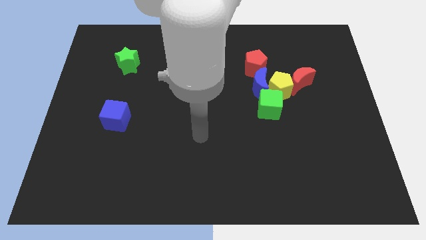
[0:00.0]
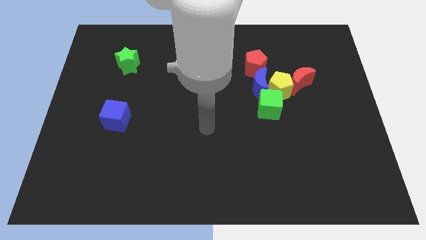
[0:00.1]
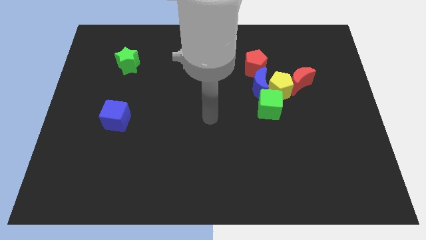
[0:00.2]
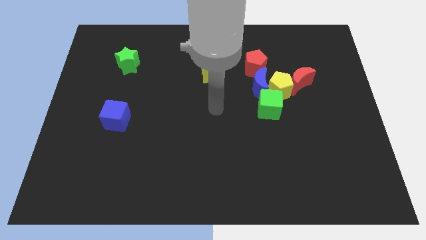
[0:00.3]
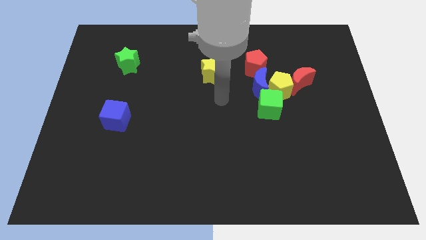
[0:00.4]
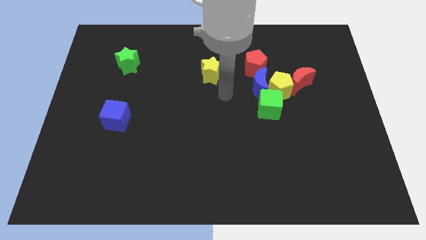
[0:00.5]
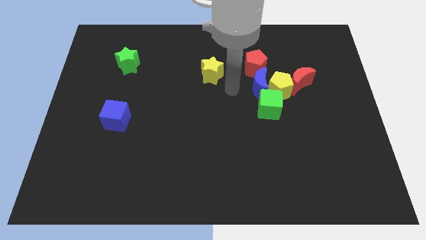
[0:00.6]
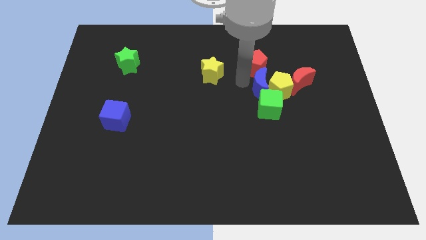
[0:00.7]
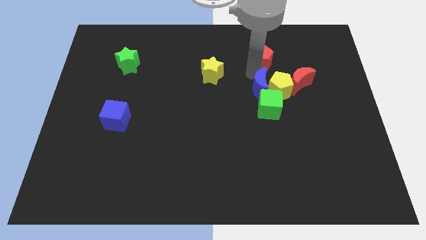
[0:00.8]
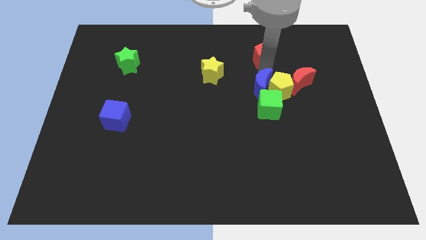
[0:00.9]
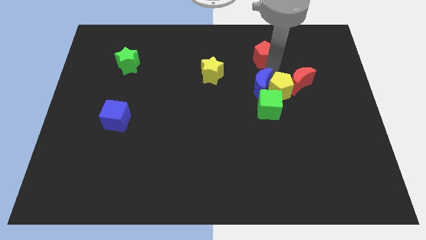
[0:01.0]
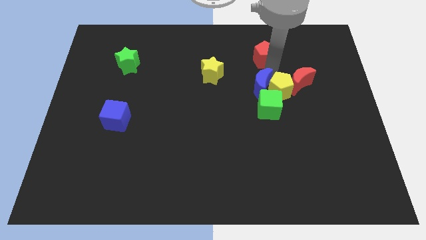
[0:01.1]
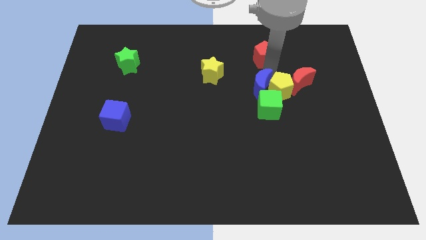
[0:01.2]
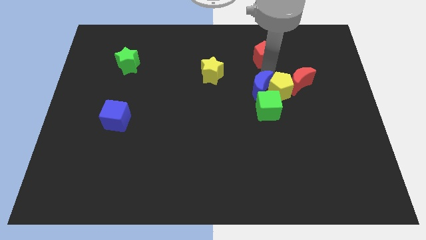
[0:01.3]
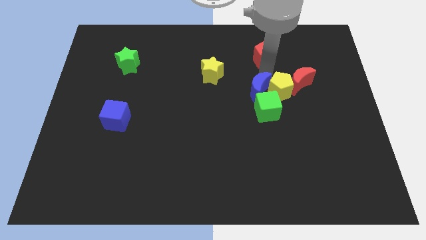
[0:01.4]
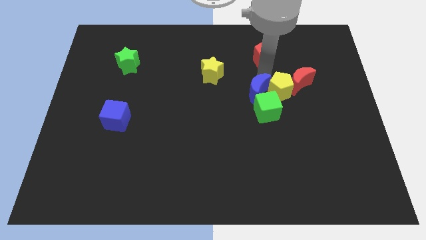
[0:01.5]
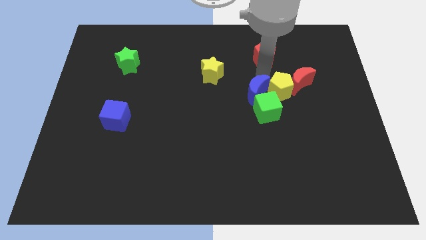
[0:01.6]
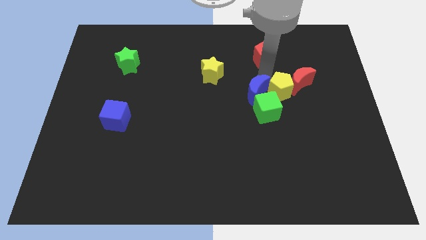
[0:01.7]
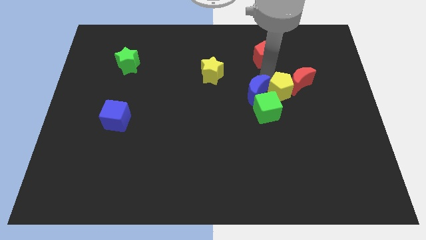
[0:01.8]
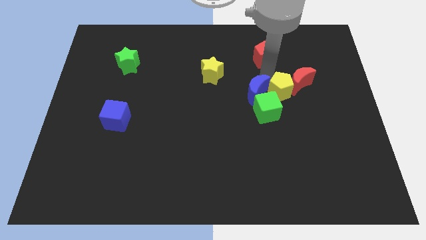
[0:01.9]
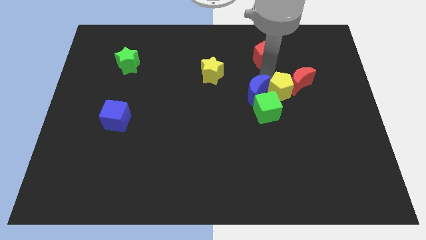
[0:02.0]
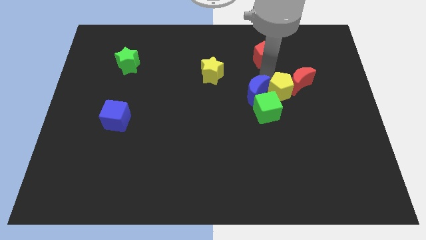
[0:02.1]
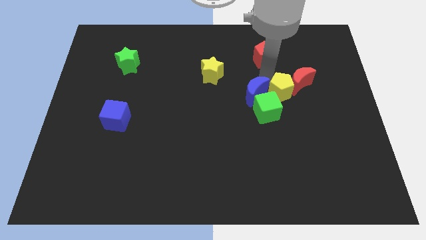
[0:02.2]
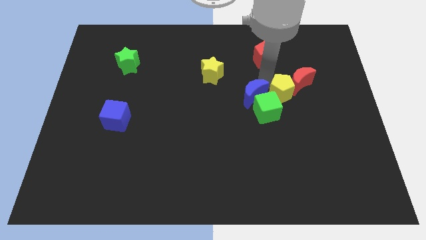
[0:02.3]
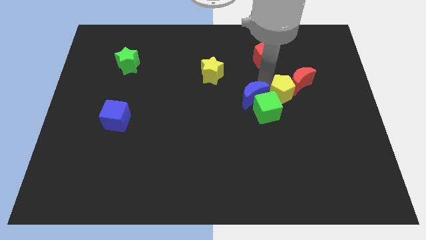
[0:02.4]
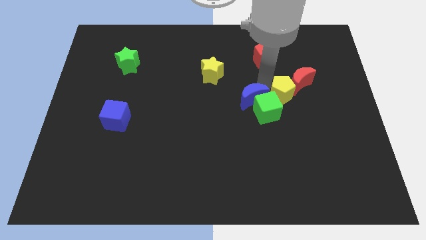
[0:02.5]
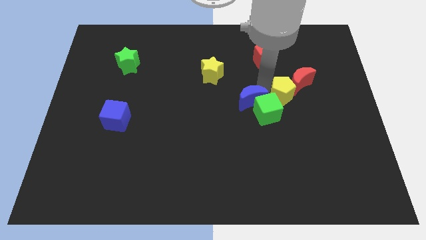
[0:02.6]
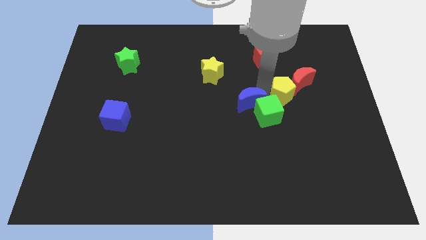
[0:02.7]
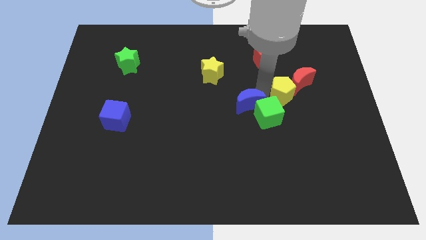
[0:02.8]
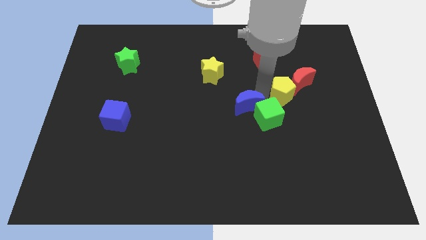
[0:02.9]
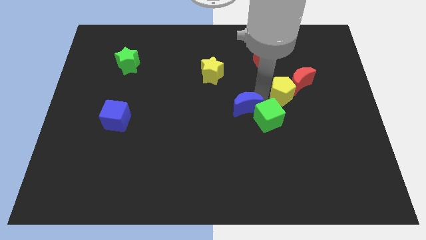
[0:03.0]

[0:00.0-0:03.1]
slightly move the blue moon downwards and to the left

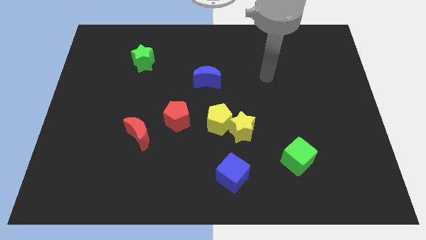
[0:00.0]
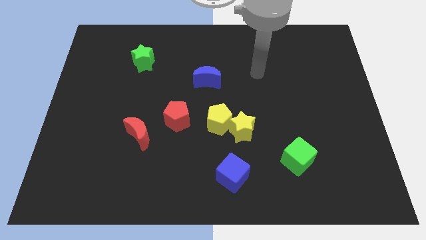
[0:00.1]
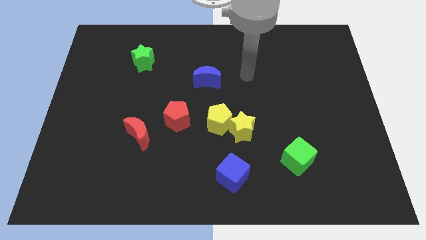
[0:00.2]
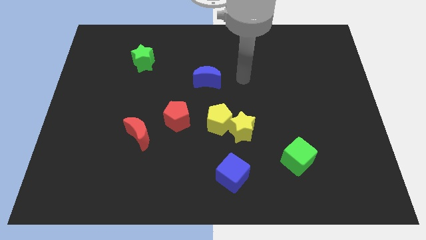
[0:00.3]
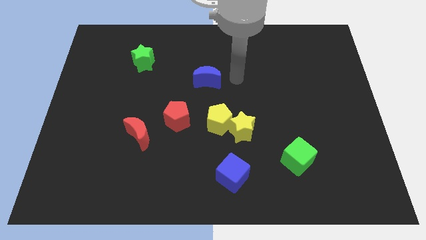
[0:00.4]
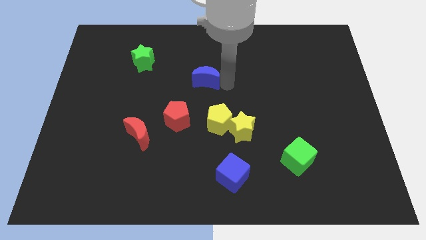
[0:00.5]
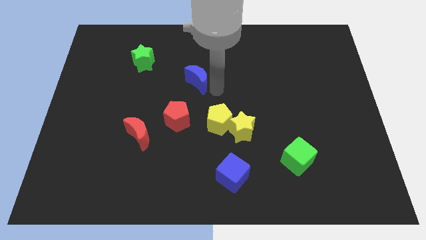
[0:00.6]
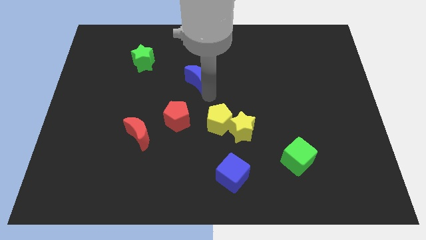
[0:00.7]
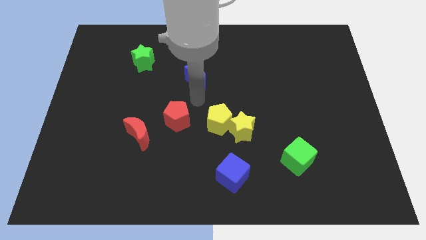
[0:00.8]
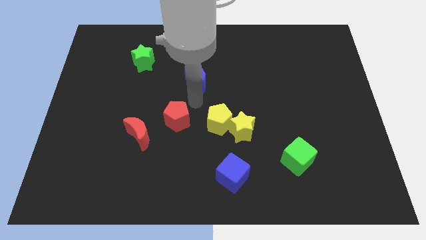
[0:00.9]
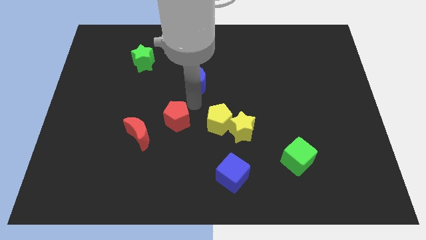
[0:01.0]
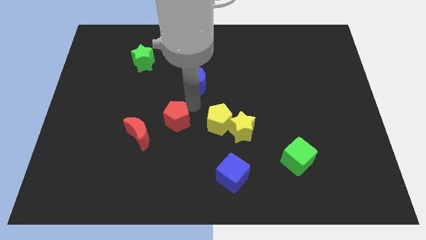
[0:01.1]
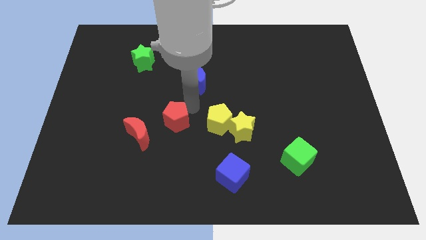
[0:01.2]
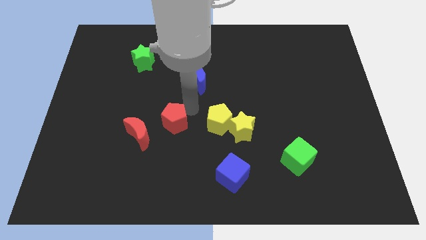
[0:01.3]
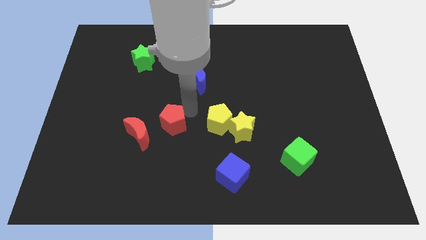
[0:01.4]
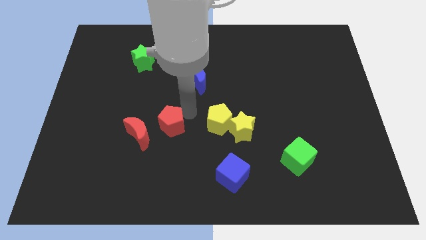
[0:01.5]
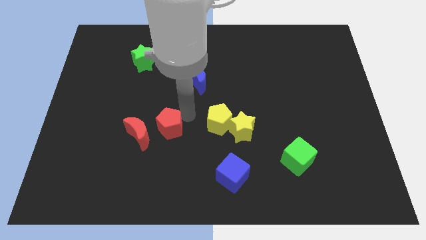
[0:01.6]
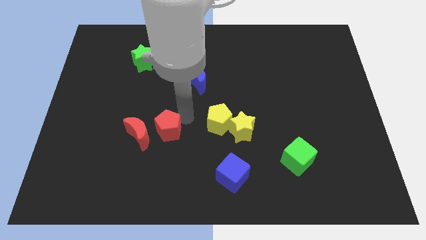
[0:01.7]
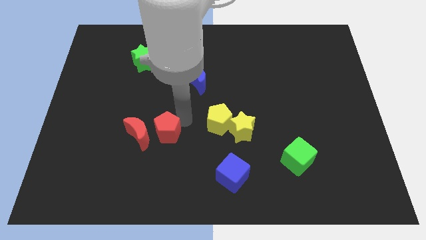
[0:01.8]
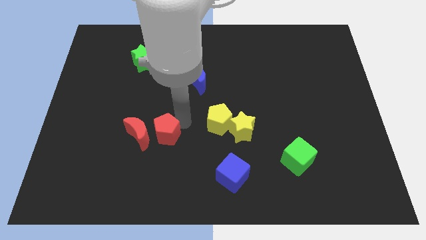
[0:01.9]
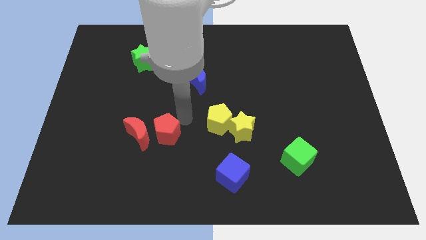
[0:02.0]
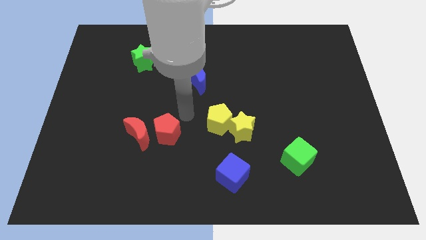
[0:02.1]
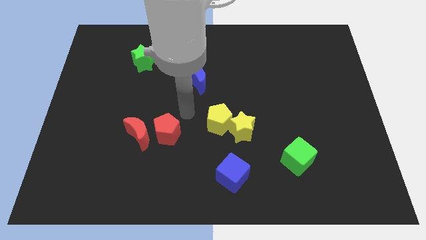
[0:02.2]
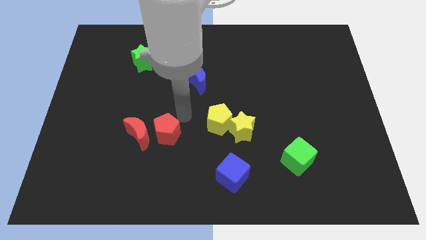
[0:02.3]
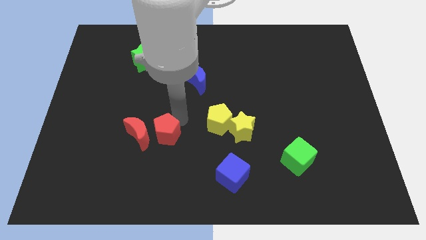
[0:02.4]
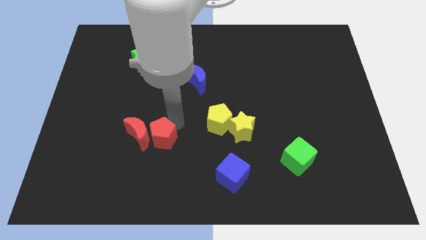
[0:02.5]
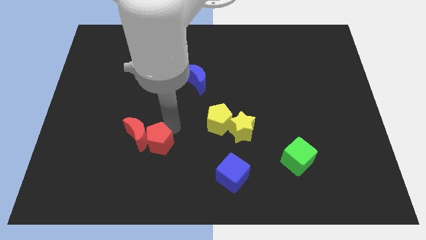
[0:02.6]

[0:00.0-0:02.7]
push the red pentagon somewhat downwards and left

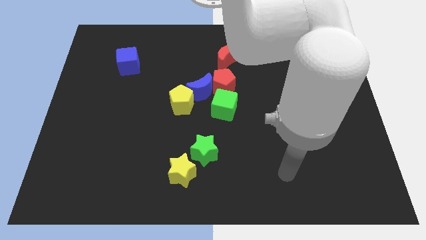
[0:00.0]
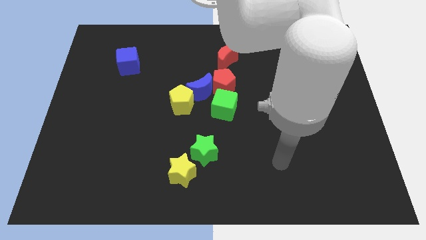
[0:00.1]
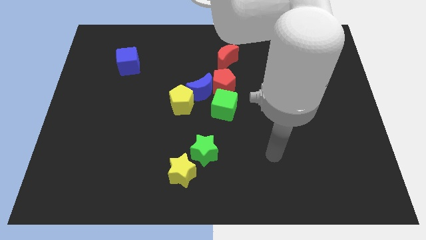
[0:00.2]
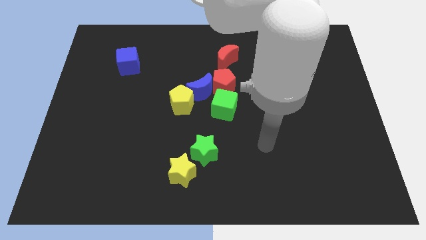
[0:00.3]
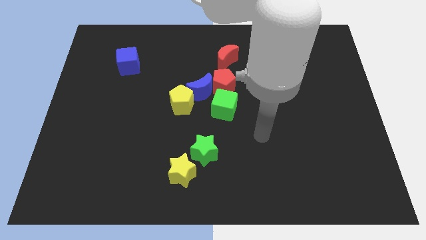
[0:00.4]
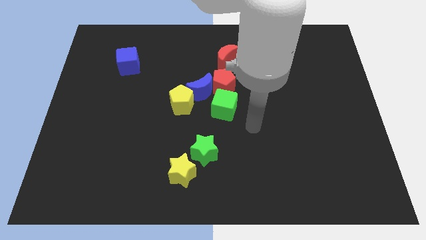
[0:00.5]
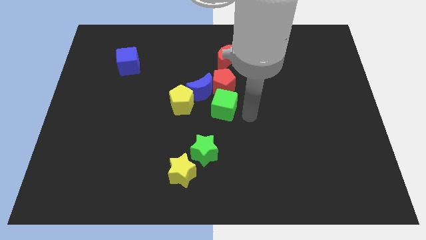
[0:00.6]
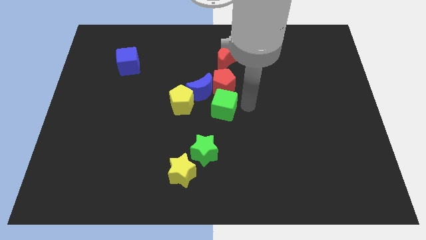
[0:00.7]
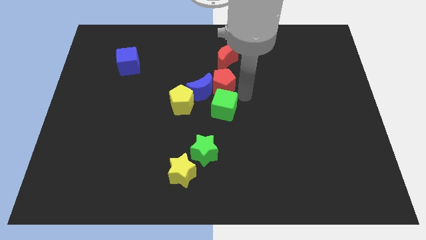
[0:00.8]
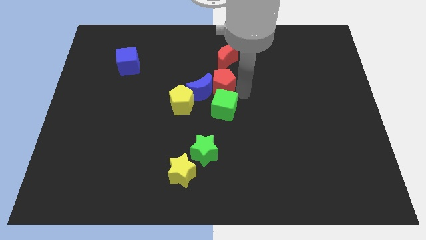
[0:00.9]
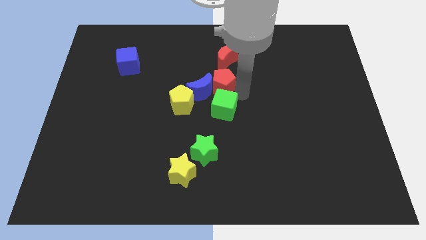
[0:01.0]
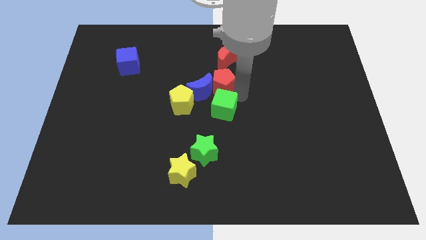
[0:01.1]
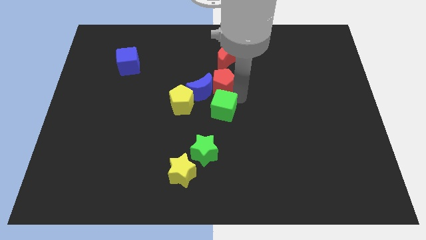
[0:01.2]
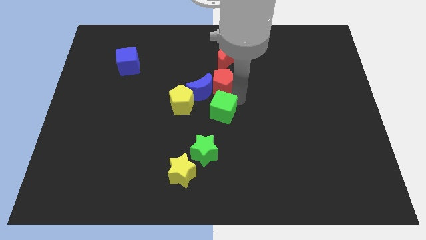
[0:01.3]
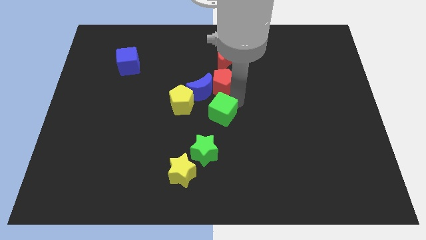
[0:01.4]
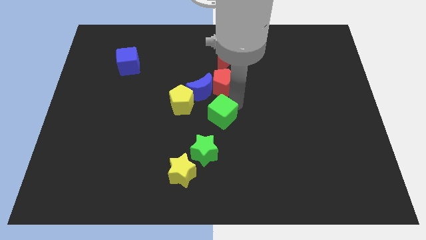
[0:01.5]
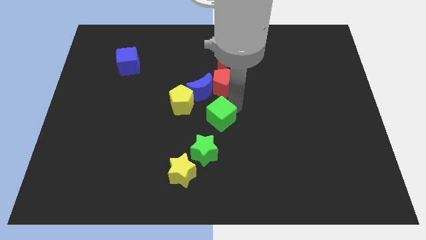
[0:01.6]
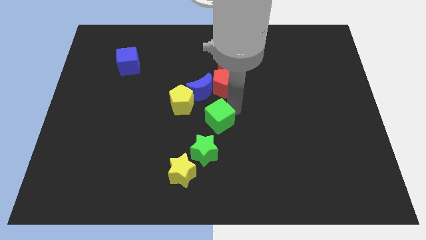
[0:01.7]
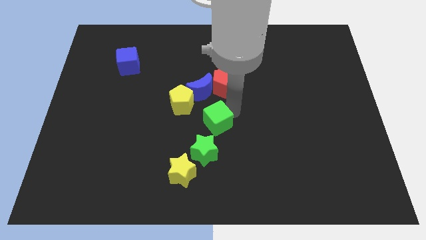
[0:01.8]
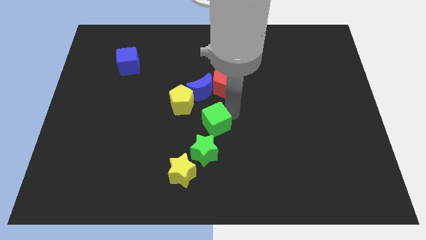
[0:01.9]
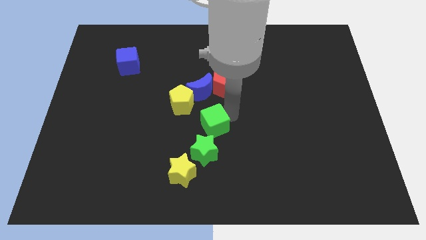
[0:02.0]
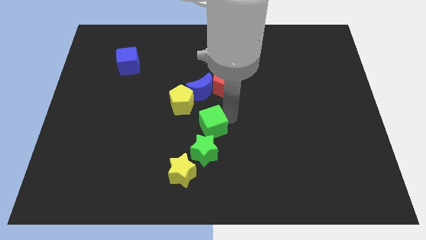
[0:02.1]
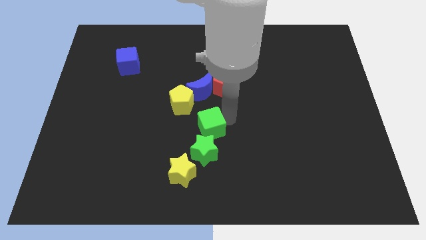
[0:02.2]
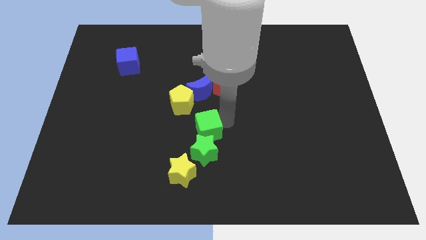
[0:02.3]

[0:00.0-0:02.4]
push the green cube slightly downwards and then left
